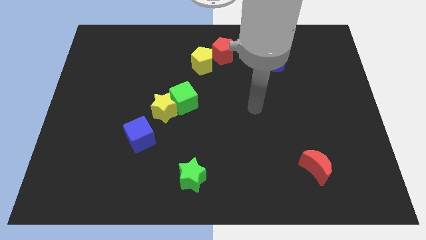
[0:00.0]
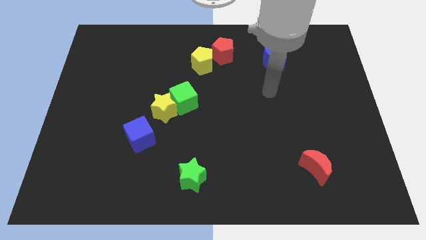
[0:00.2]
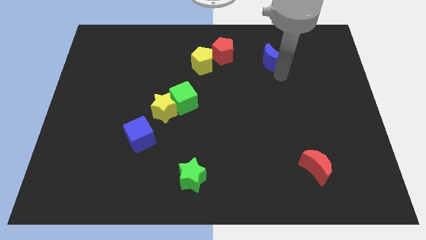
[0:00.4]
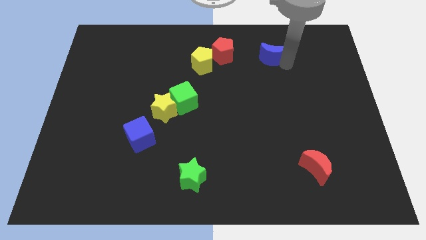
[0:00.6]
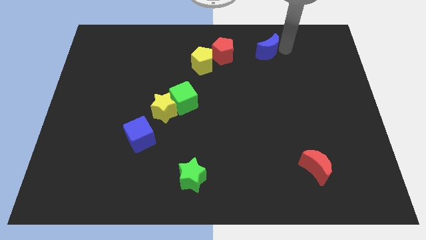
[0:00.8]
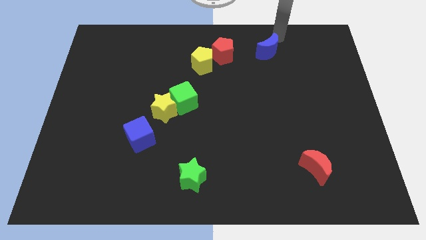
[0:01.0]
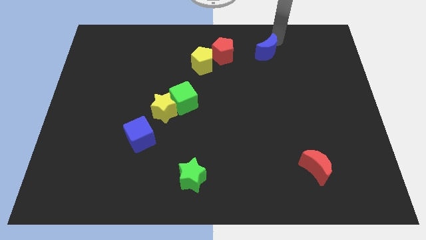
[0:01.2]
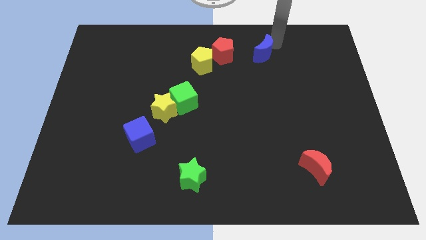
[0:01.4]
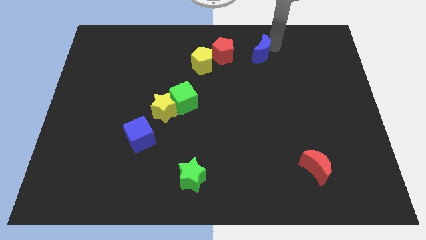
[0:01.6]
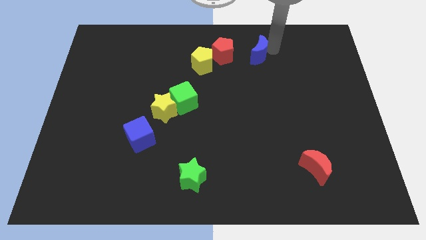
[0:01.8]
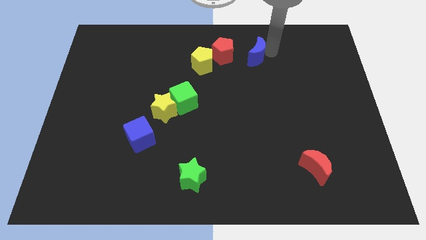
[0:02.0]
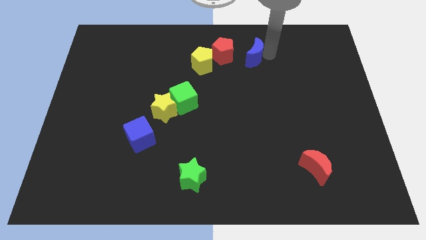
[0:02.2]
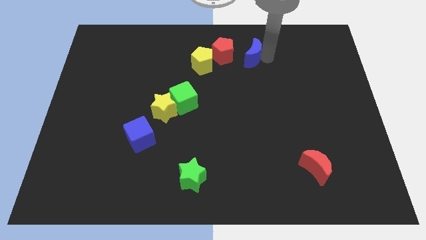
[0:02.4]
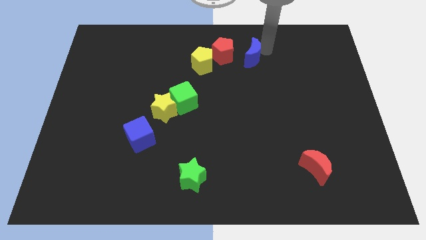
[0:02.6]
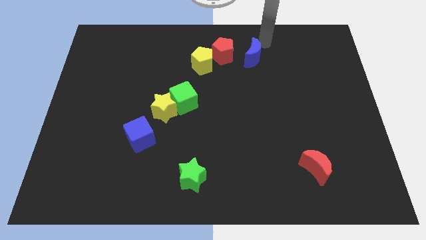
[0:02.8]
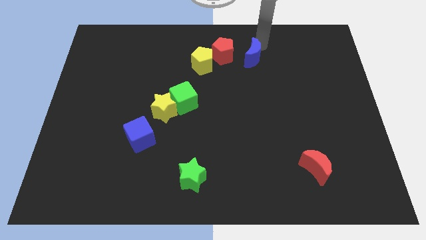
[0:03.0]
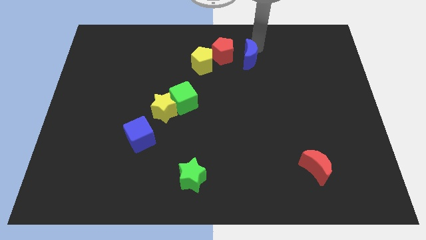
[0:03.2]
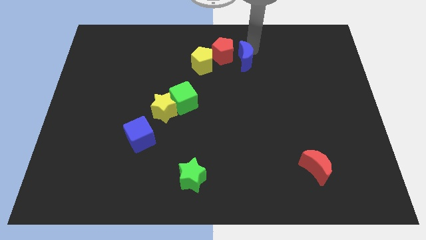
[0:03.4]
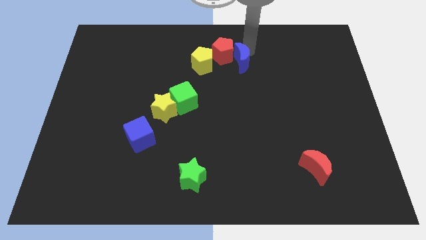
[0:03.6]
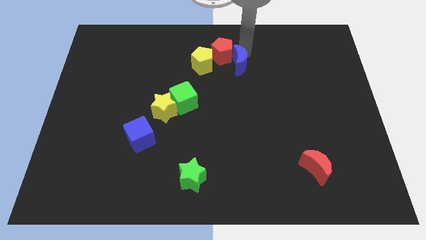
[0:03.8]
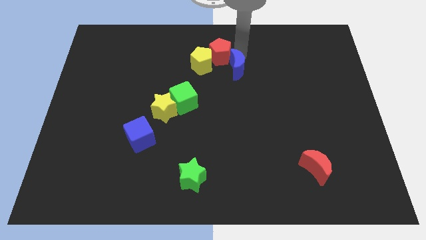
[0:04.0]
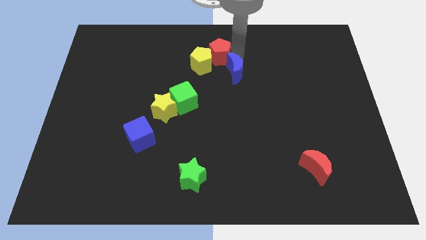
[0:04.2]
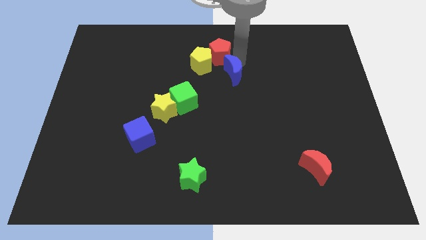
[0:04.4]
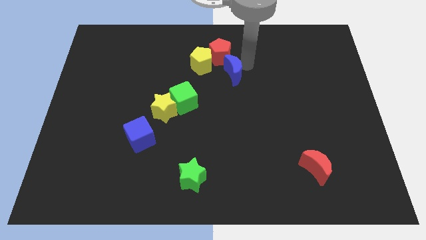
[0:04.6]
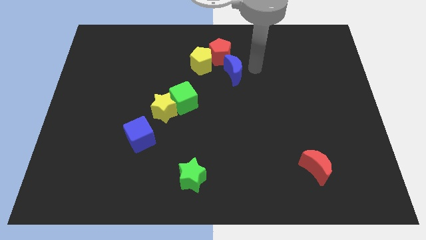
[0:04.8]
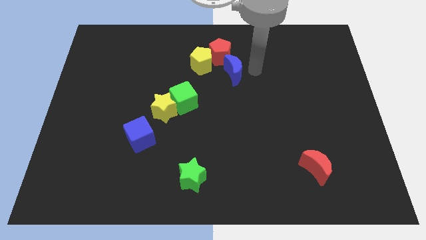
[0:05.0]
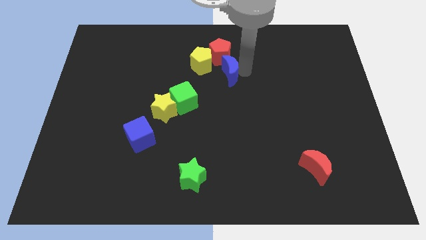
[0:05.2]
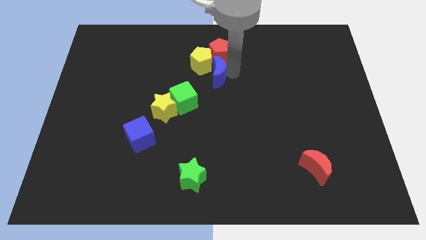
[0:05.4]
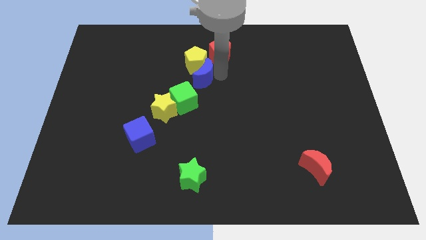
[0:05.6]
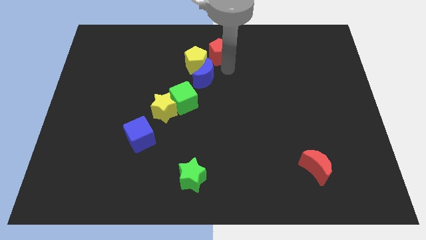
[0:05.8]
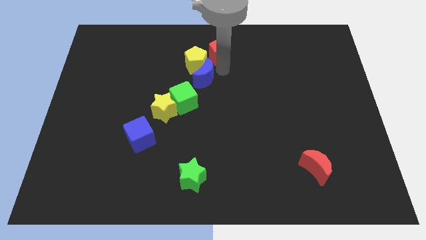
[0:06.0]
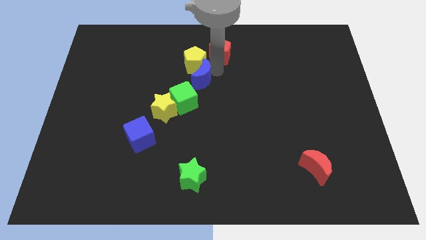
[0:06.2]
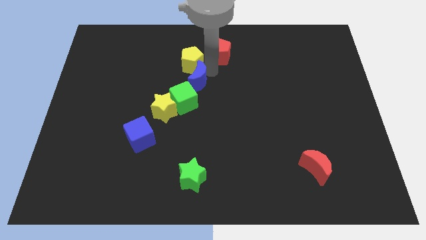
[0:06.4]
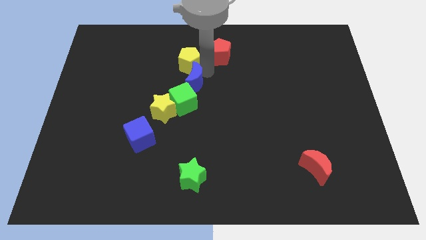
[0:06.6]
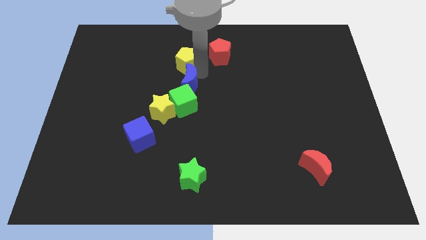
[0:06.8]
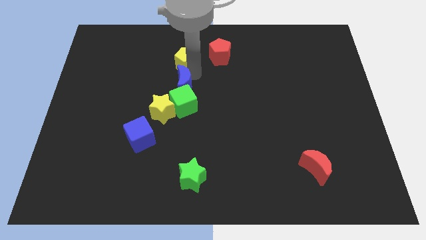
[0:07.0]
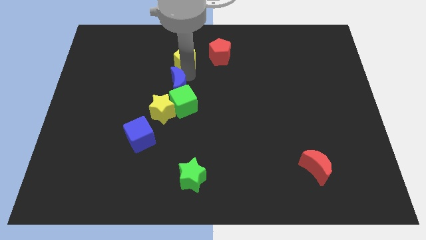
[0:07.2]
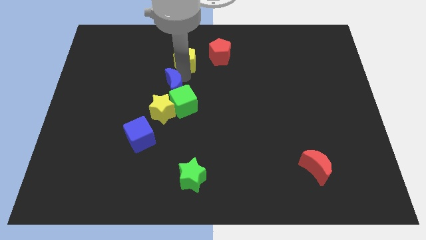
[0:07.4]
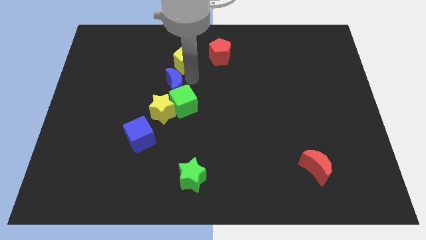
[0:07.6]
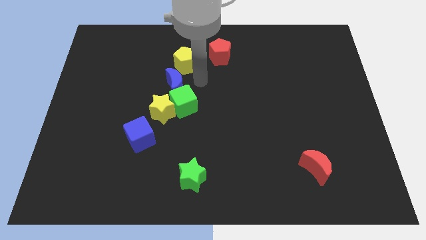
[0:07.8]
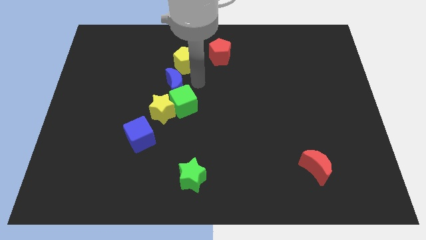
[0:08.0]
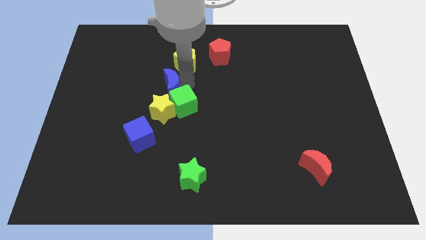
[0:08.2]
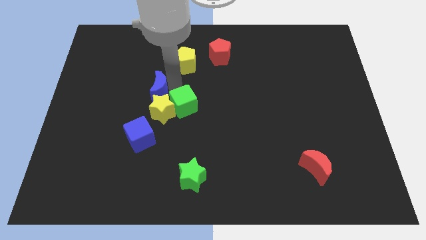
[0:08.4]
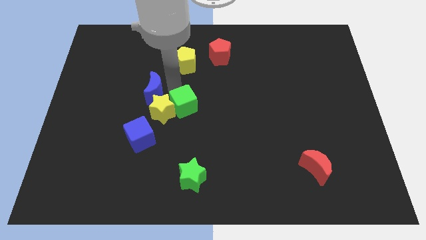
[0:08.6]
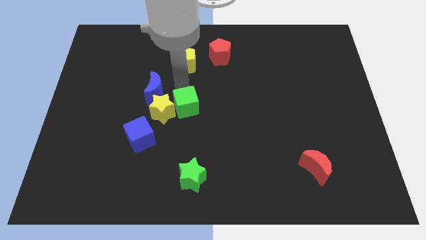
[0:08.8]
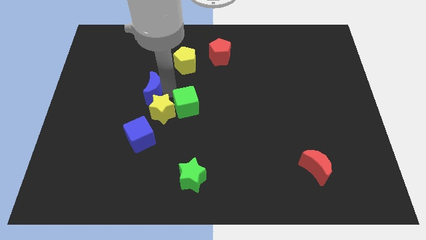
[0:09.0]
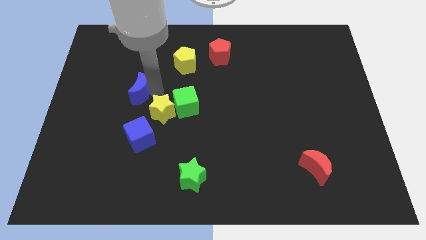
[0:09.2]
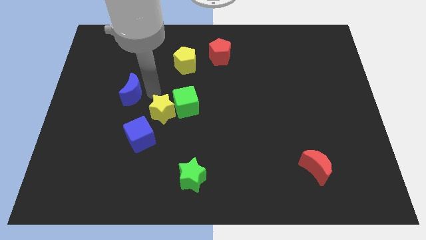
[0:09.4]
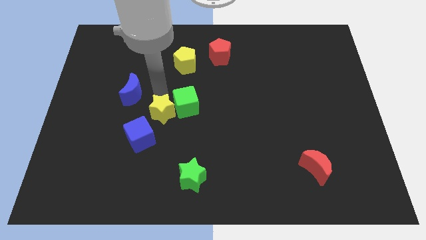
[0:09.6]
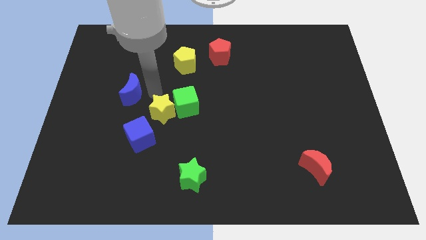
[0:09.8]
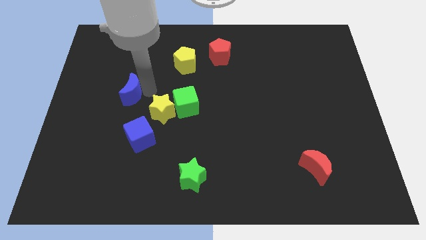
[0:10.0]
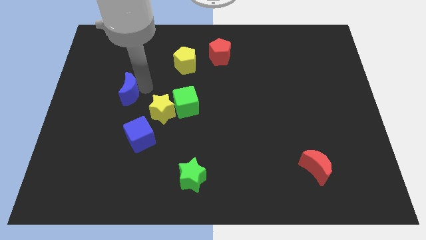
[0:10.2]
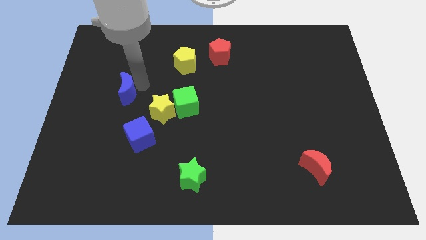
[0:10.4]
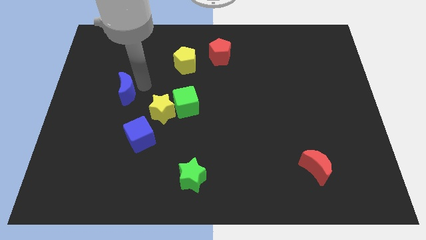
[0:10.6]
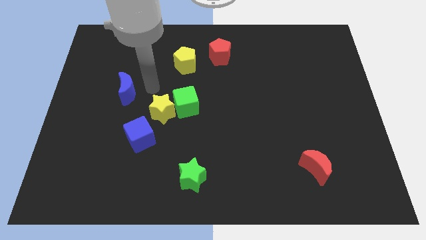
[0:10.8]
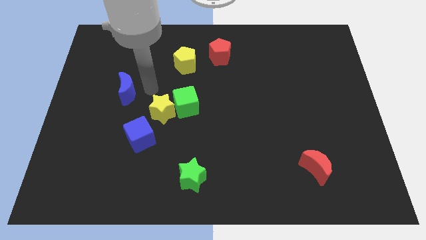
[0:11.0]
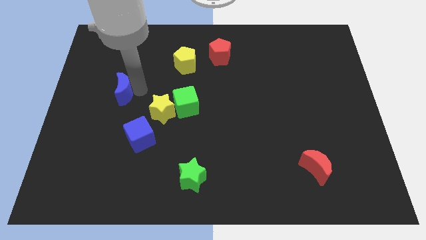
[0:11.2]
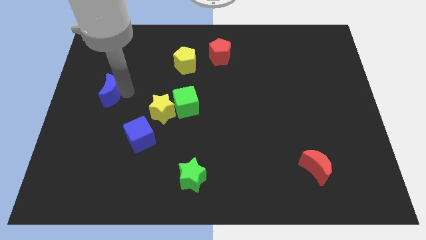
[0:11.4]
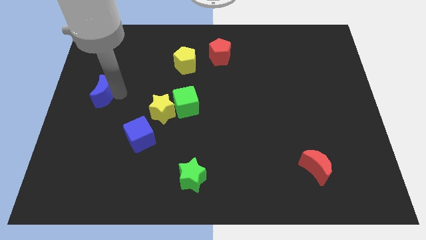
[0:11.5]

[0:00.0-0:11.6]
push the blue moon to the left side
